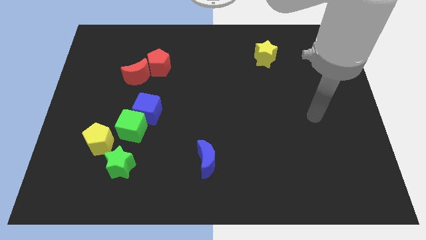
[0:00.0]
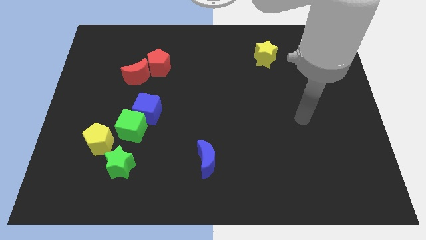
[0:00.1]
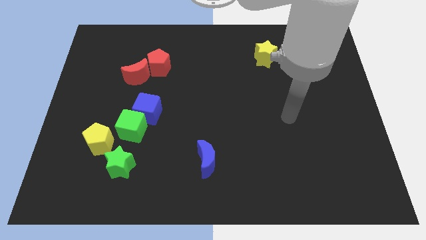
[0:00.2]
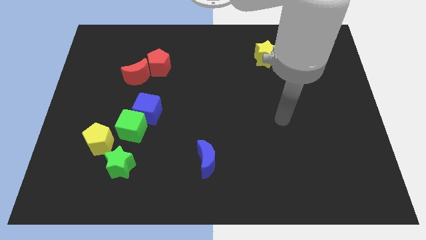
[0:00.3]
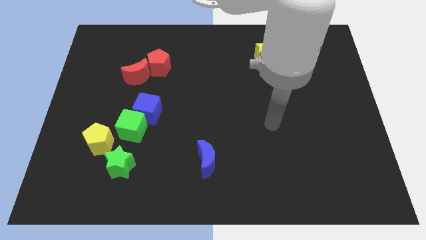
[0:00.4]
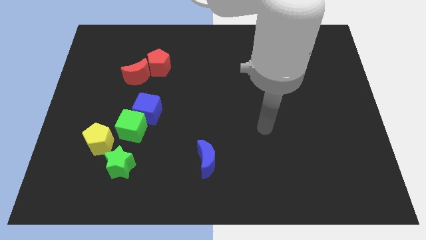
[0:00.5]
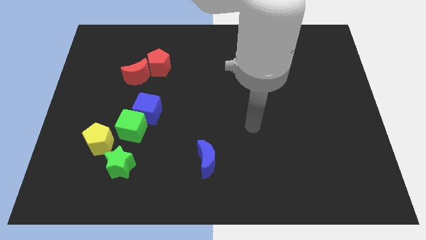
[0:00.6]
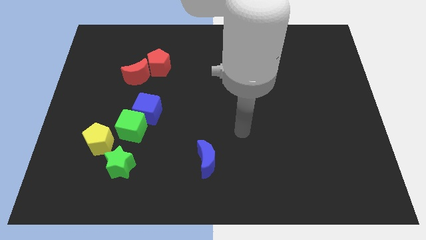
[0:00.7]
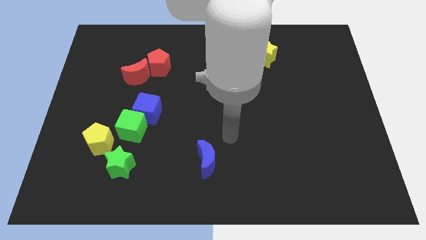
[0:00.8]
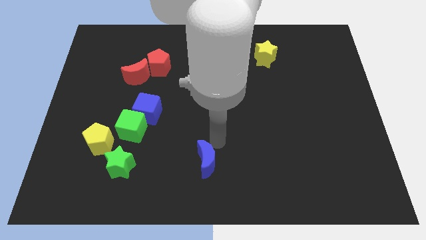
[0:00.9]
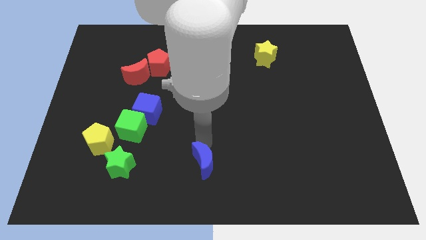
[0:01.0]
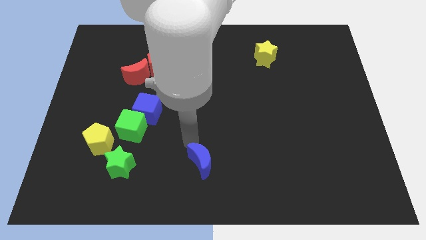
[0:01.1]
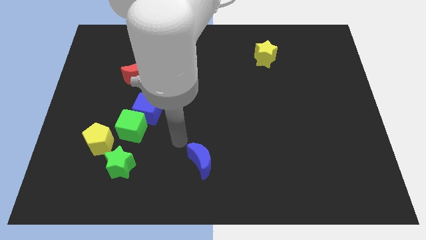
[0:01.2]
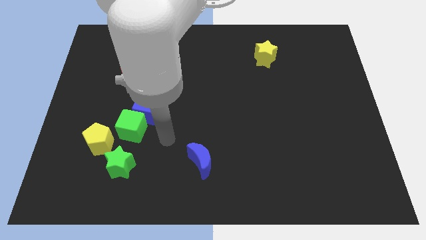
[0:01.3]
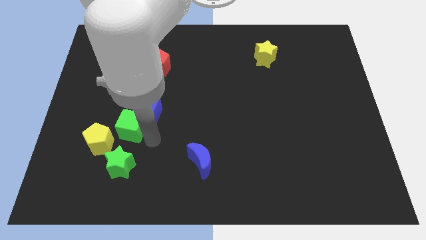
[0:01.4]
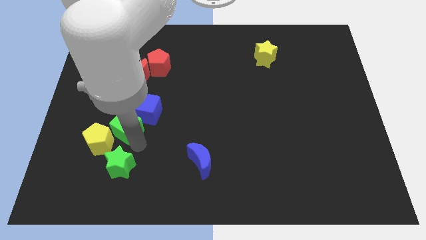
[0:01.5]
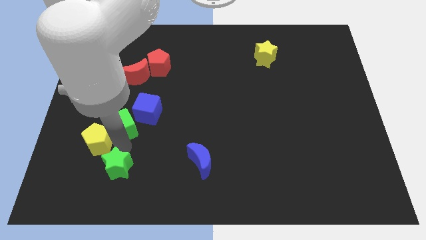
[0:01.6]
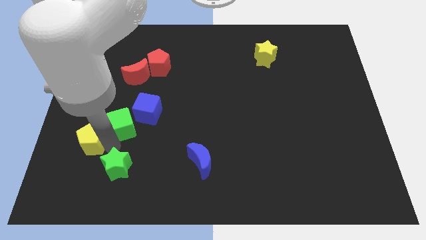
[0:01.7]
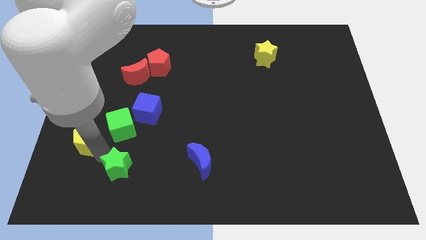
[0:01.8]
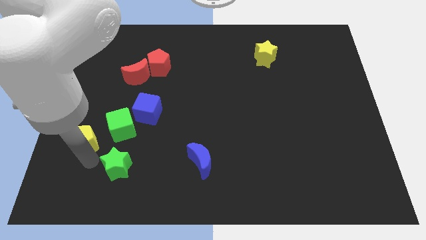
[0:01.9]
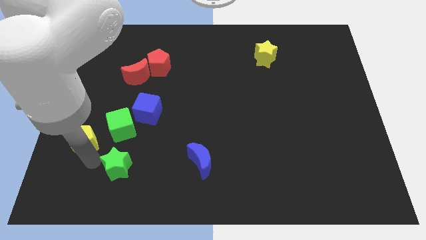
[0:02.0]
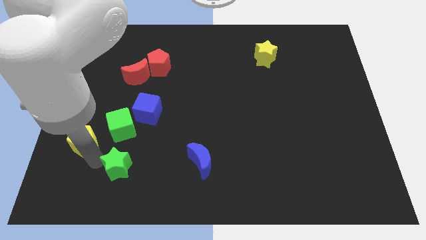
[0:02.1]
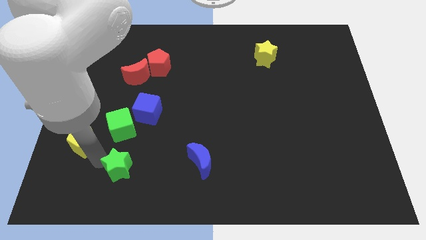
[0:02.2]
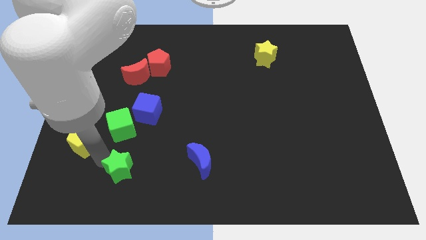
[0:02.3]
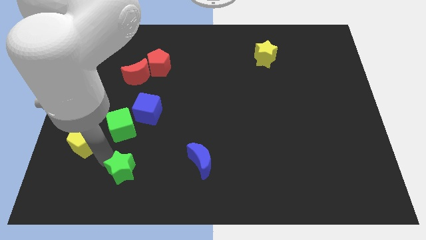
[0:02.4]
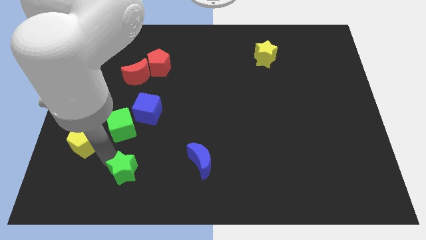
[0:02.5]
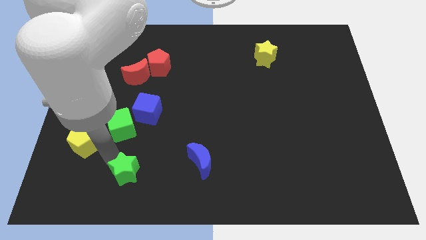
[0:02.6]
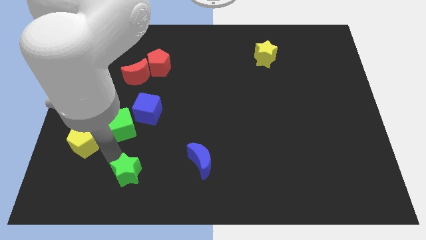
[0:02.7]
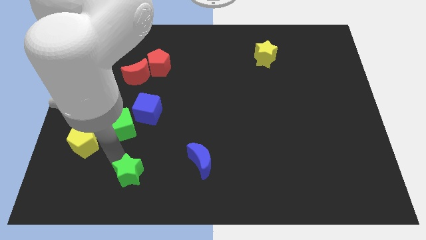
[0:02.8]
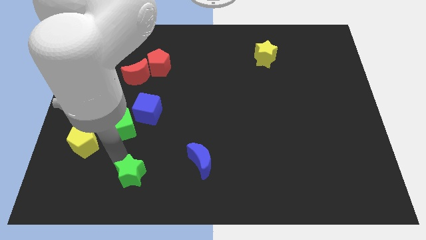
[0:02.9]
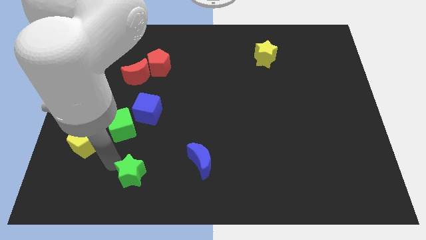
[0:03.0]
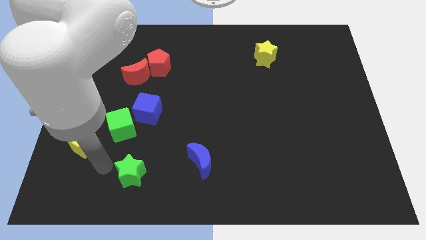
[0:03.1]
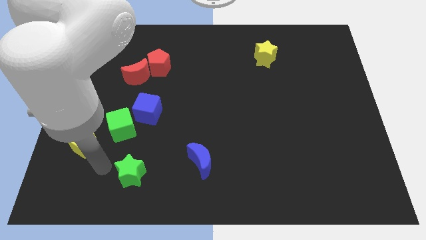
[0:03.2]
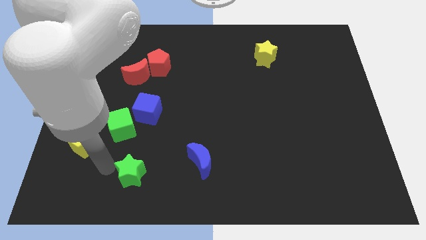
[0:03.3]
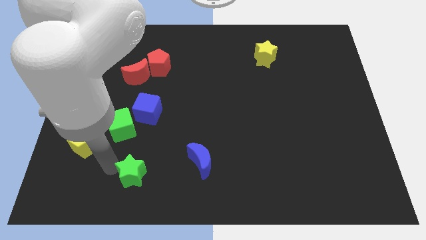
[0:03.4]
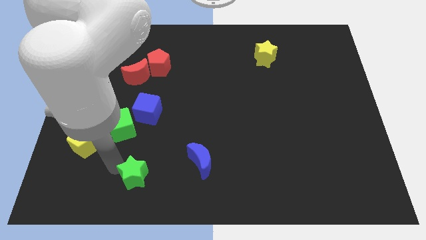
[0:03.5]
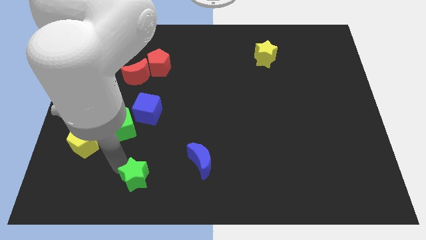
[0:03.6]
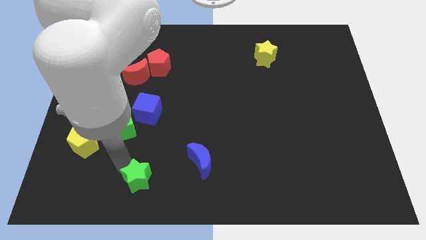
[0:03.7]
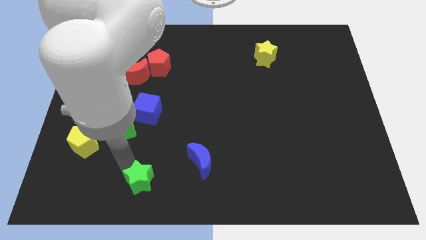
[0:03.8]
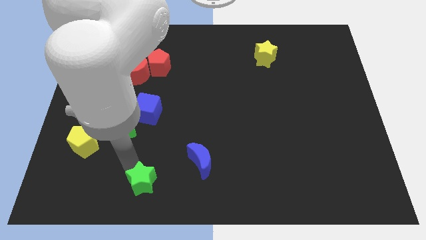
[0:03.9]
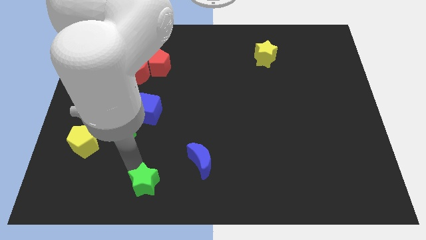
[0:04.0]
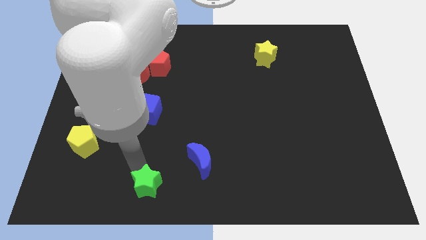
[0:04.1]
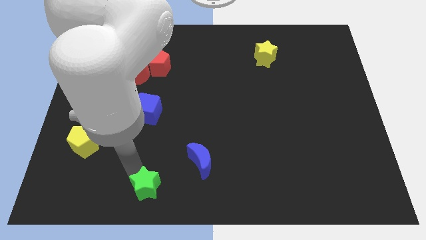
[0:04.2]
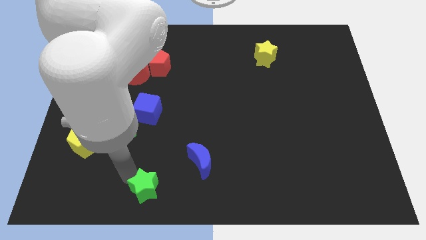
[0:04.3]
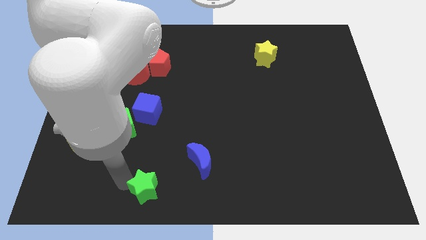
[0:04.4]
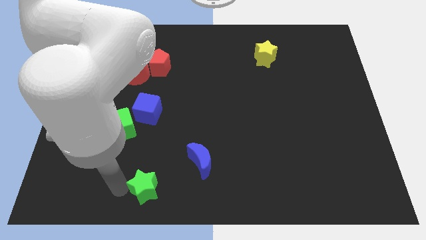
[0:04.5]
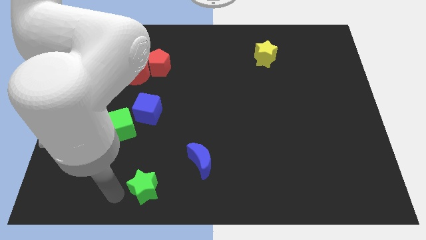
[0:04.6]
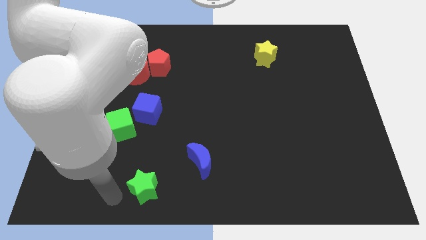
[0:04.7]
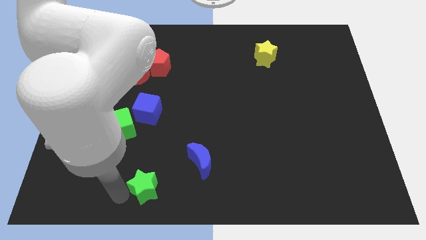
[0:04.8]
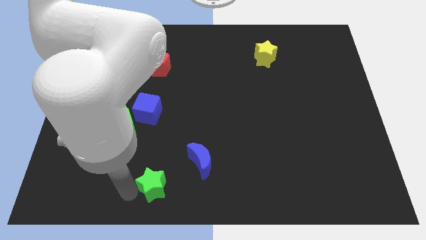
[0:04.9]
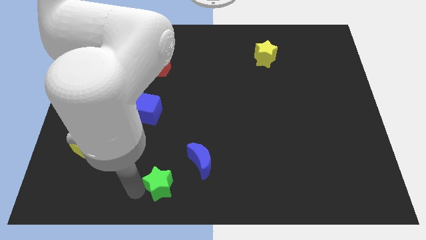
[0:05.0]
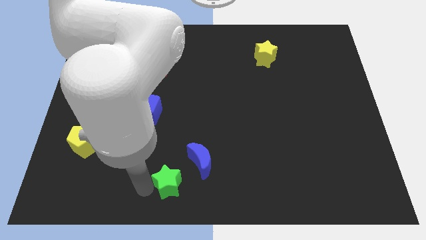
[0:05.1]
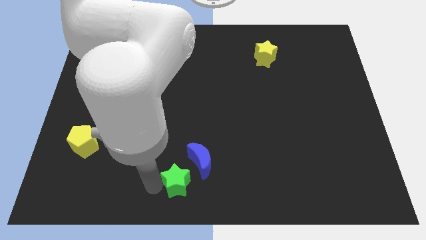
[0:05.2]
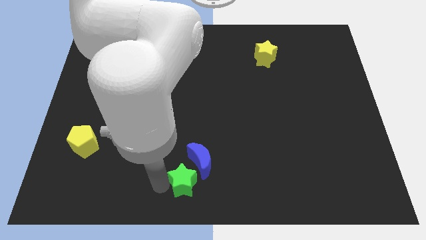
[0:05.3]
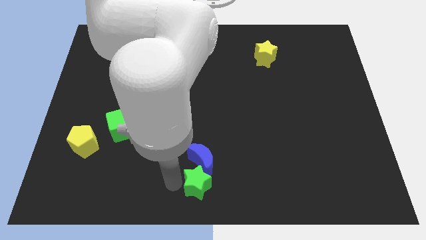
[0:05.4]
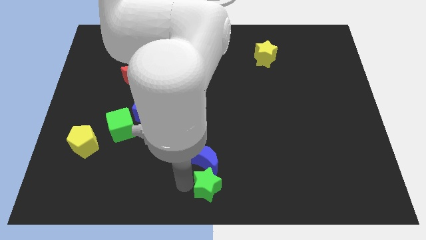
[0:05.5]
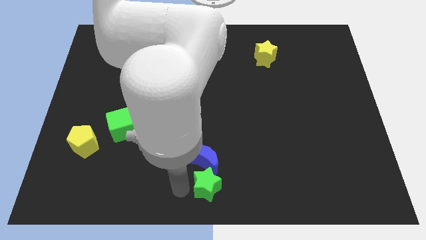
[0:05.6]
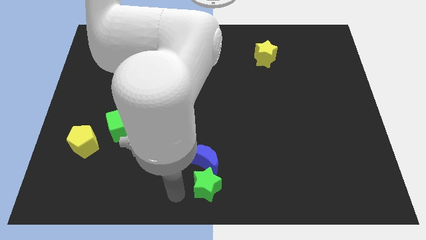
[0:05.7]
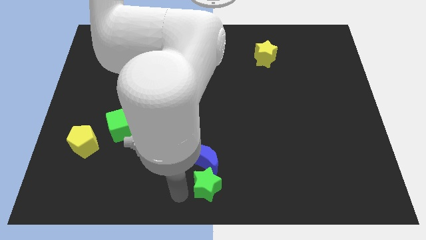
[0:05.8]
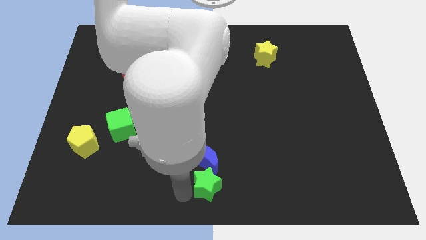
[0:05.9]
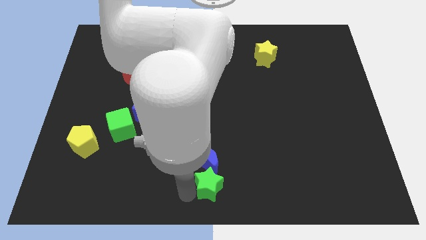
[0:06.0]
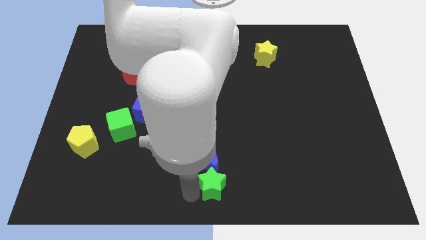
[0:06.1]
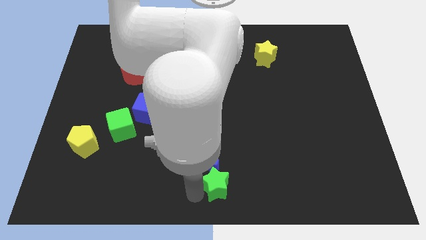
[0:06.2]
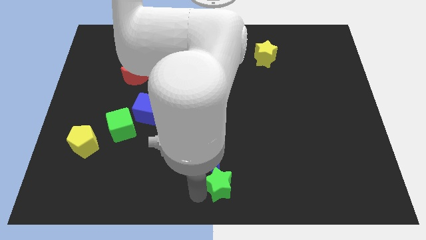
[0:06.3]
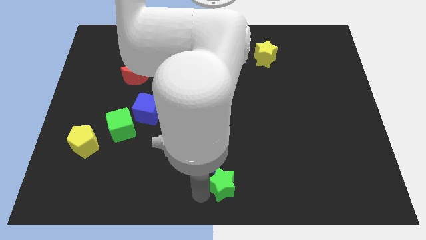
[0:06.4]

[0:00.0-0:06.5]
push the green star right

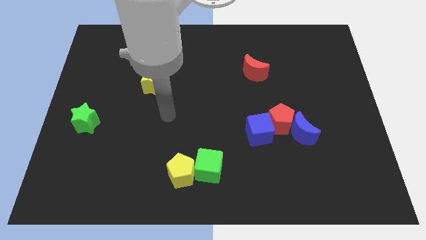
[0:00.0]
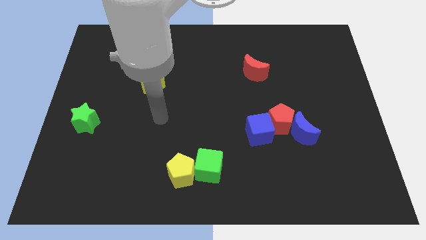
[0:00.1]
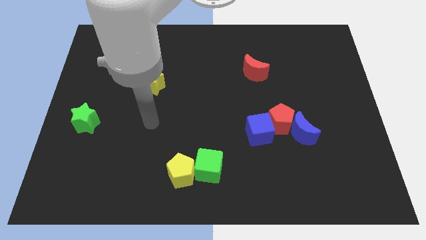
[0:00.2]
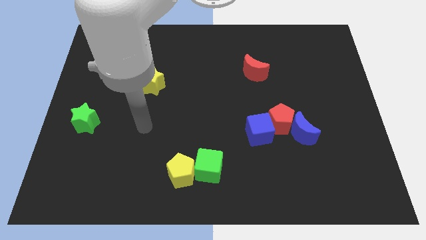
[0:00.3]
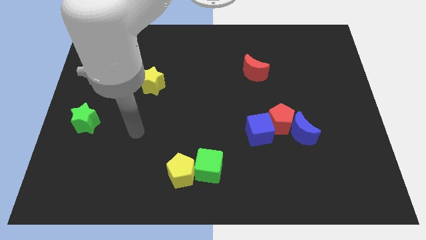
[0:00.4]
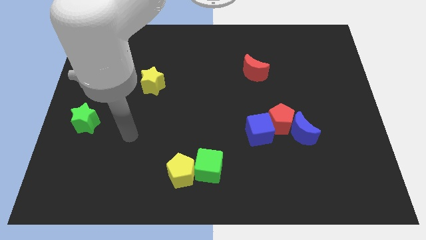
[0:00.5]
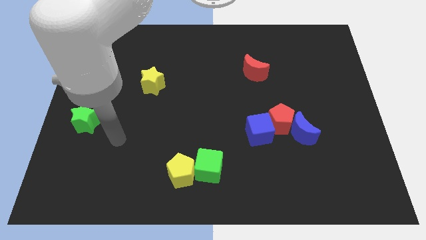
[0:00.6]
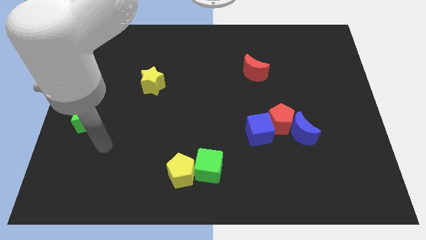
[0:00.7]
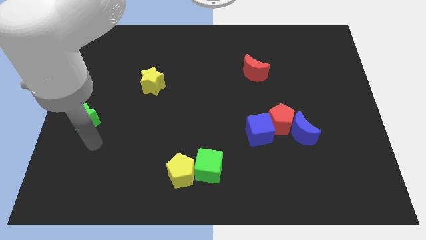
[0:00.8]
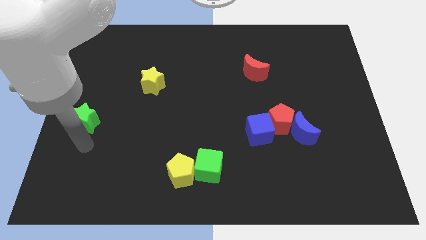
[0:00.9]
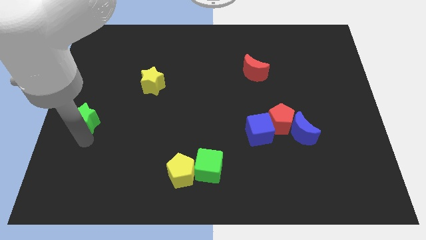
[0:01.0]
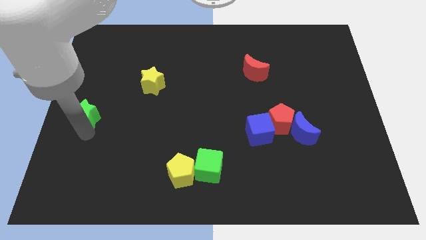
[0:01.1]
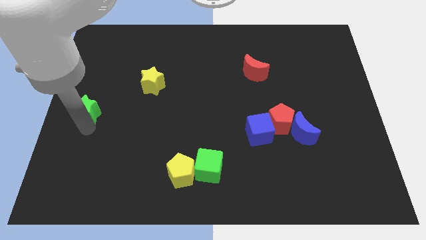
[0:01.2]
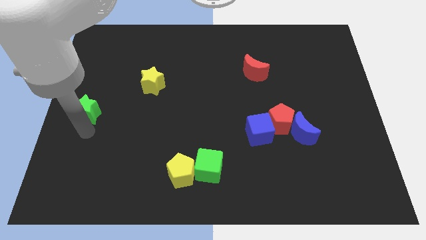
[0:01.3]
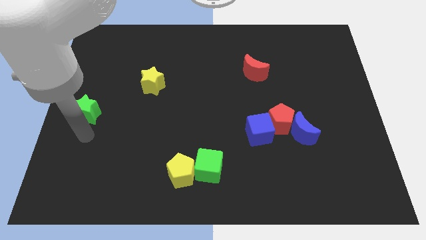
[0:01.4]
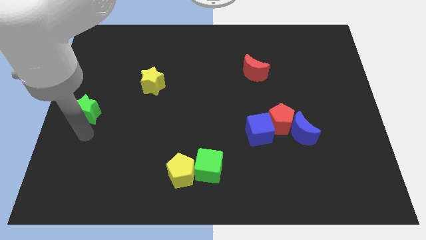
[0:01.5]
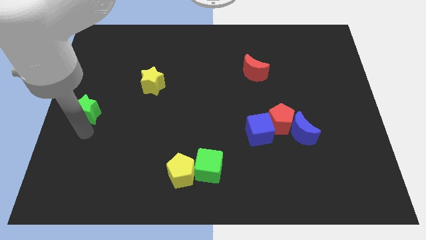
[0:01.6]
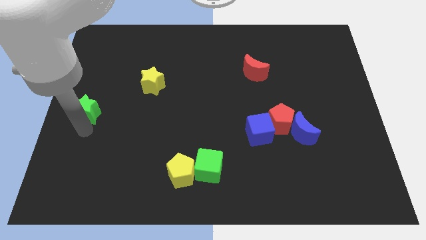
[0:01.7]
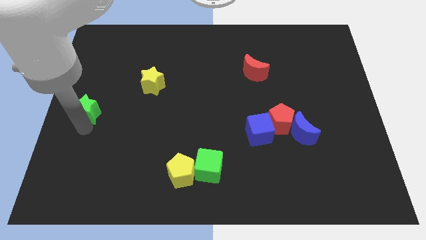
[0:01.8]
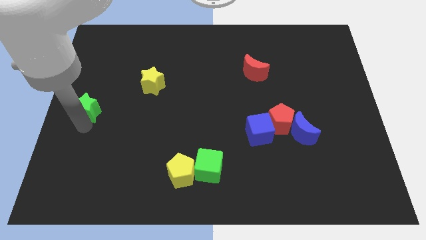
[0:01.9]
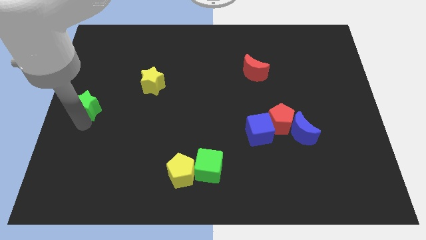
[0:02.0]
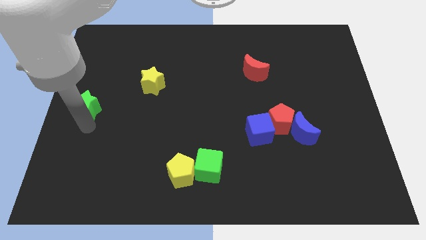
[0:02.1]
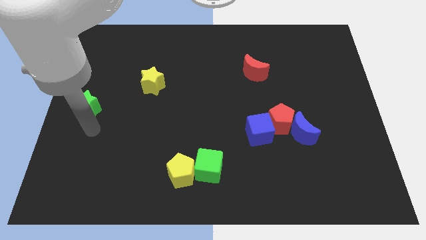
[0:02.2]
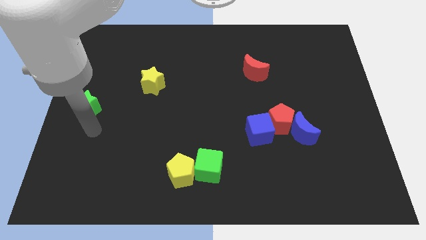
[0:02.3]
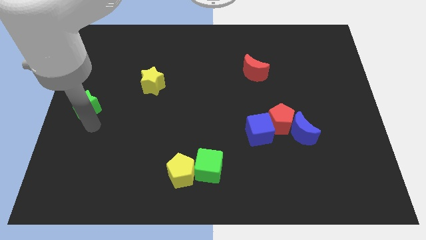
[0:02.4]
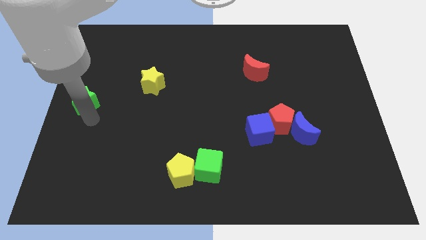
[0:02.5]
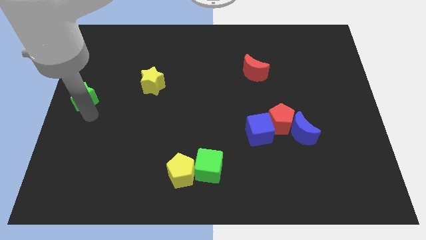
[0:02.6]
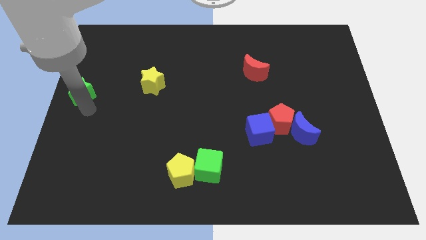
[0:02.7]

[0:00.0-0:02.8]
slide the green star up a little
